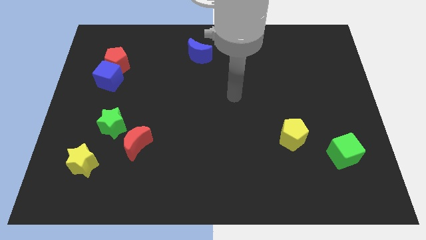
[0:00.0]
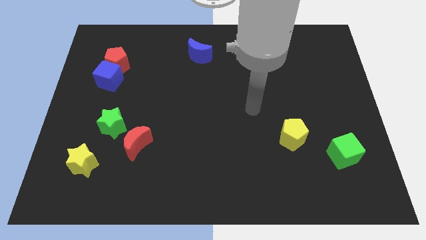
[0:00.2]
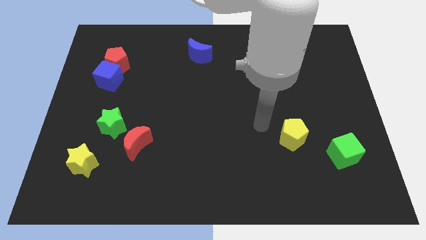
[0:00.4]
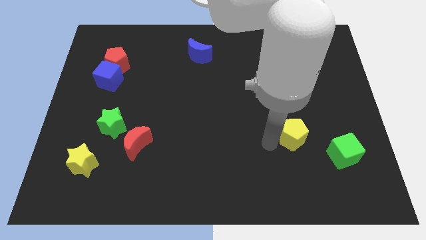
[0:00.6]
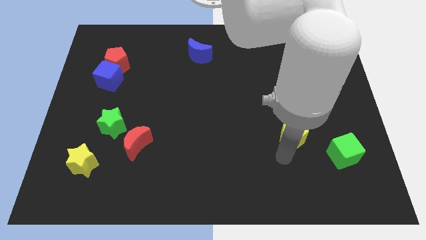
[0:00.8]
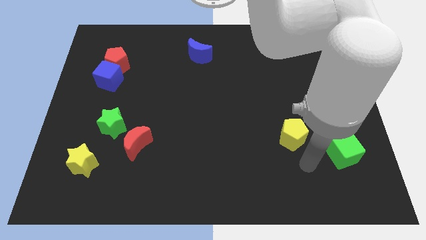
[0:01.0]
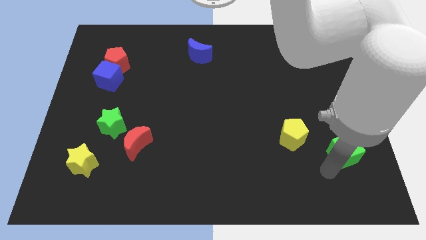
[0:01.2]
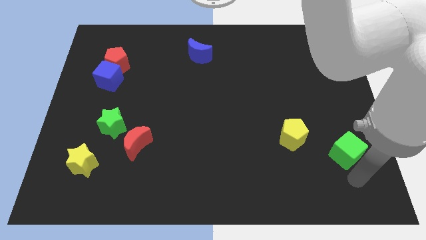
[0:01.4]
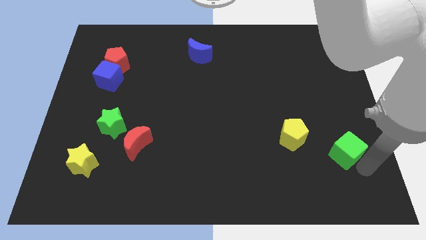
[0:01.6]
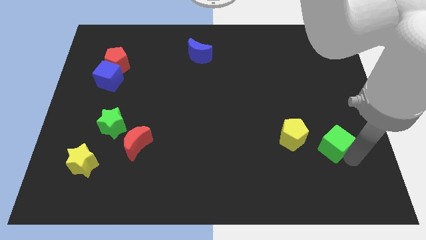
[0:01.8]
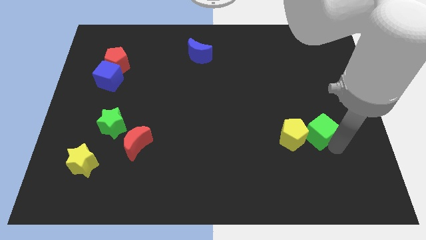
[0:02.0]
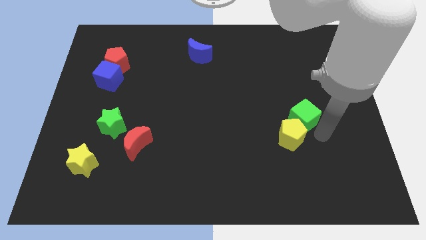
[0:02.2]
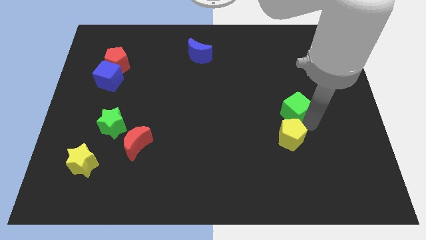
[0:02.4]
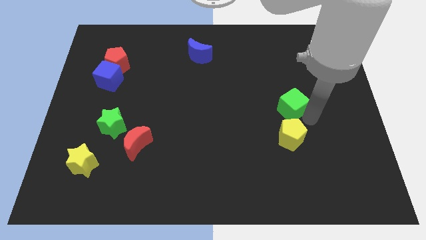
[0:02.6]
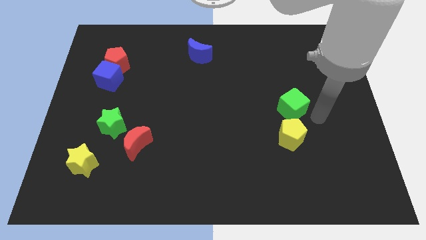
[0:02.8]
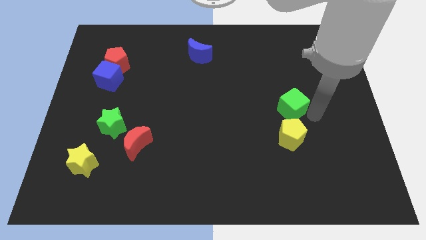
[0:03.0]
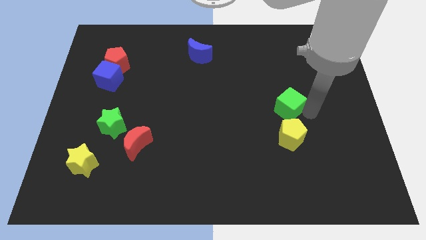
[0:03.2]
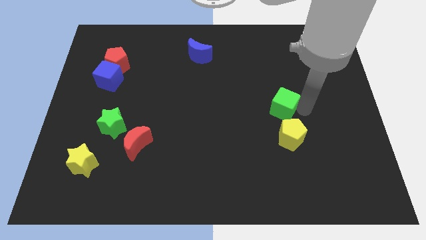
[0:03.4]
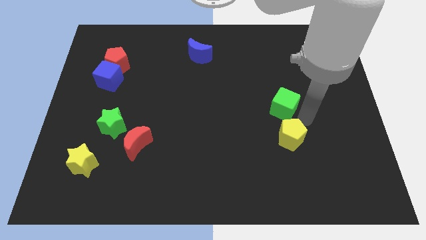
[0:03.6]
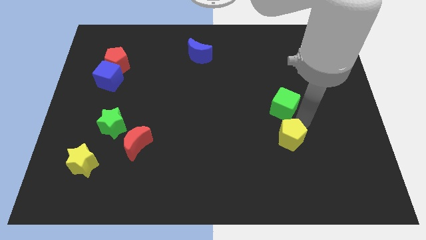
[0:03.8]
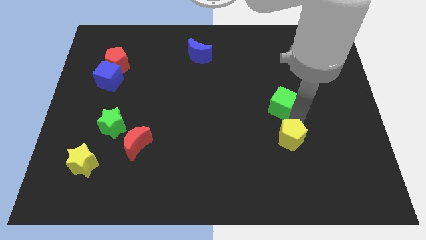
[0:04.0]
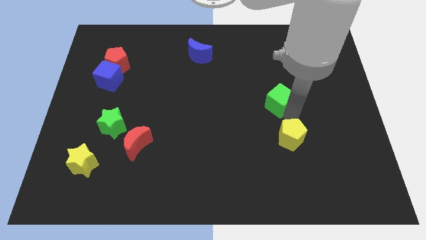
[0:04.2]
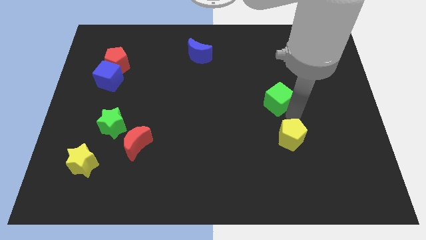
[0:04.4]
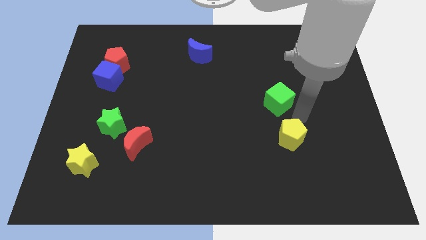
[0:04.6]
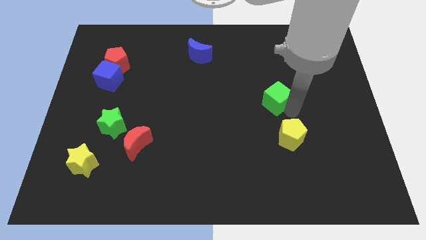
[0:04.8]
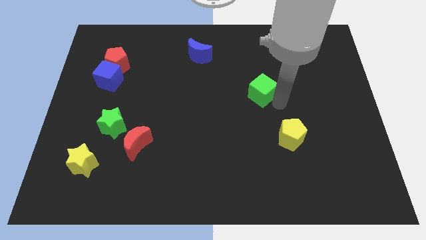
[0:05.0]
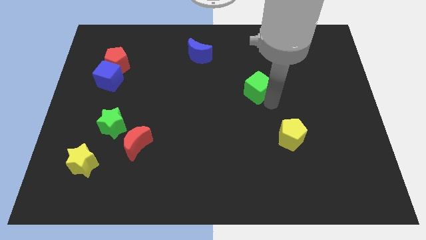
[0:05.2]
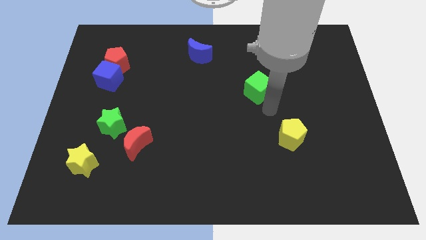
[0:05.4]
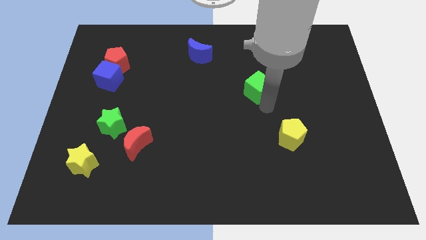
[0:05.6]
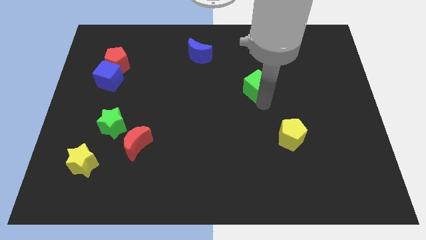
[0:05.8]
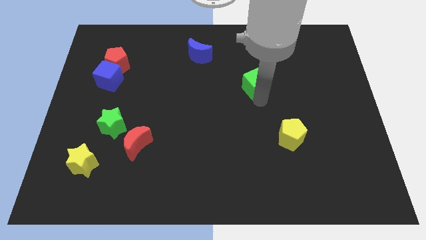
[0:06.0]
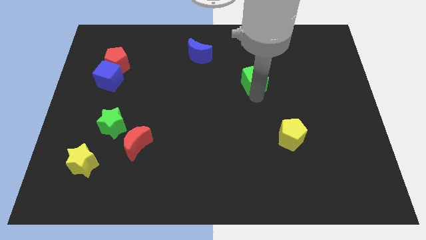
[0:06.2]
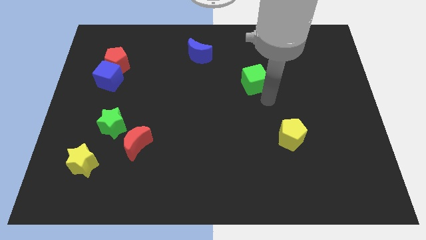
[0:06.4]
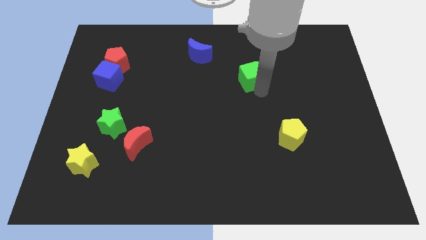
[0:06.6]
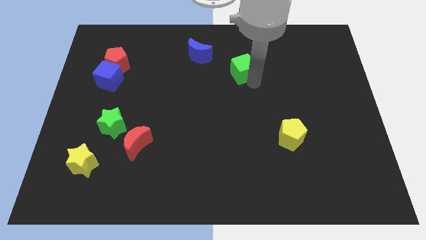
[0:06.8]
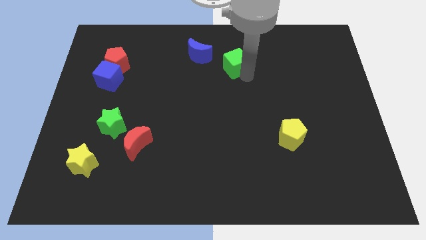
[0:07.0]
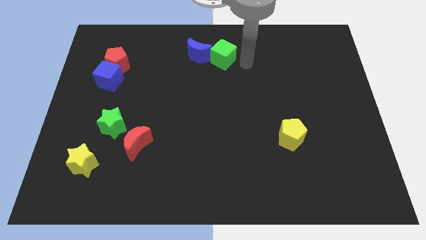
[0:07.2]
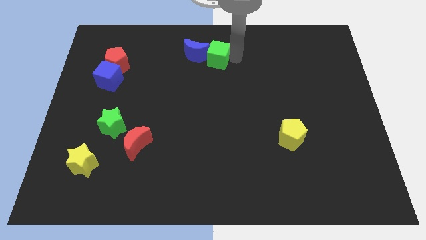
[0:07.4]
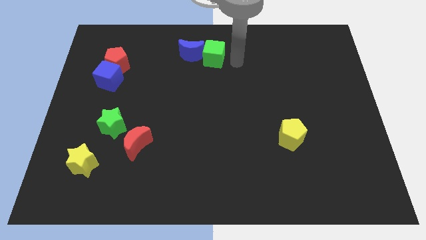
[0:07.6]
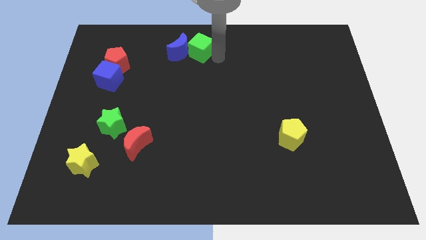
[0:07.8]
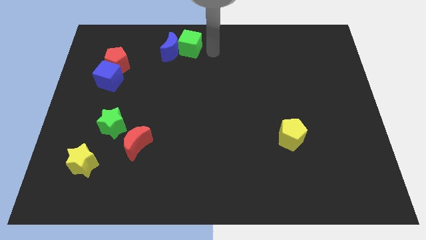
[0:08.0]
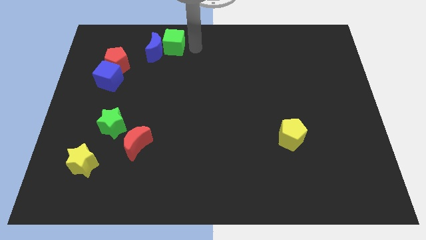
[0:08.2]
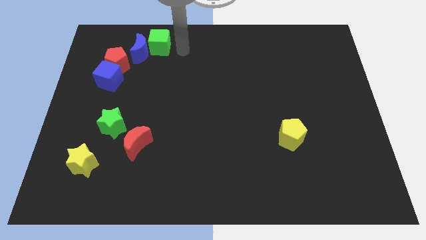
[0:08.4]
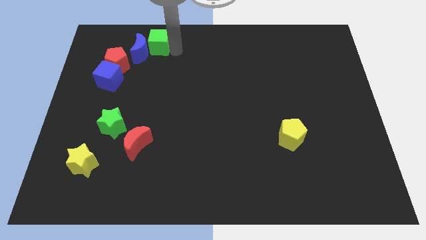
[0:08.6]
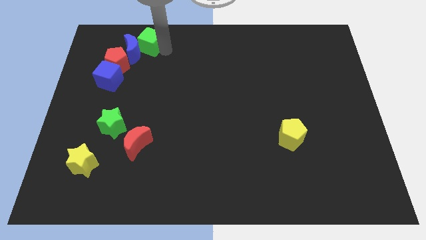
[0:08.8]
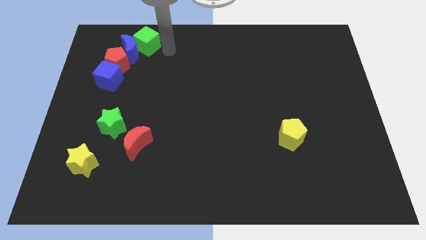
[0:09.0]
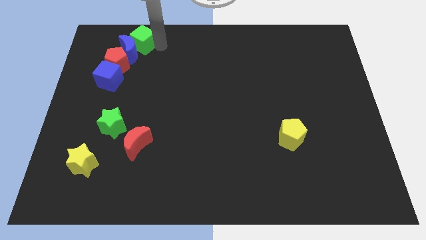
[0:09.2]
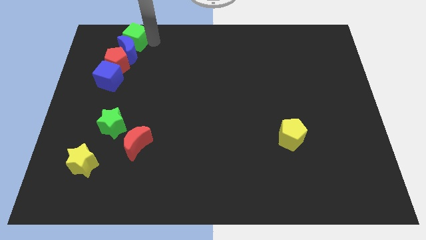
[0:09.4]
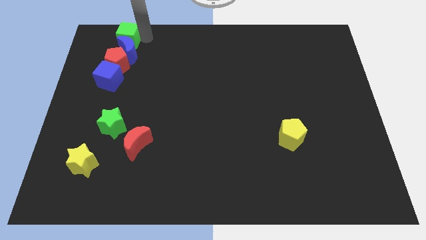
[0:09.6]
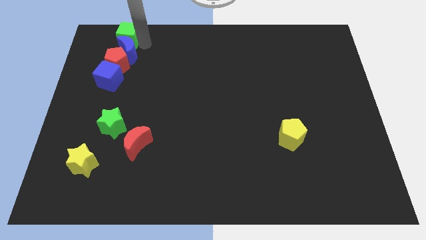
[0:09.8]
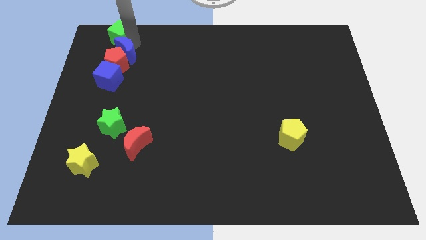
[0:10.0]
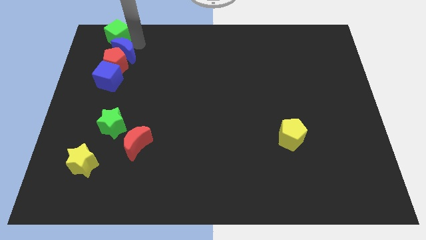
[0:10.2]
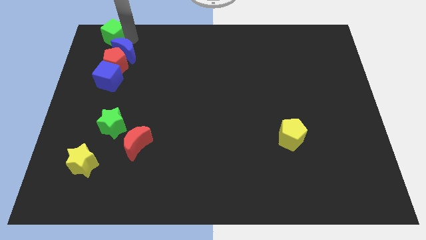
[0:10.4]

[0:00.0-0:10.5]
slide the green cube to the top left of the board
